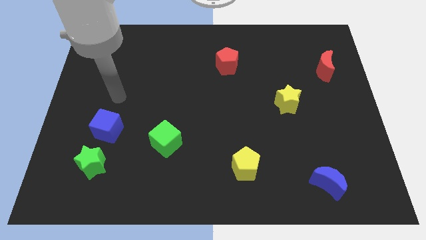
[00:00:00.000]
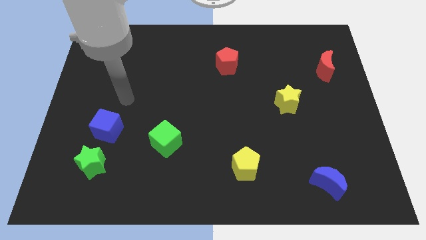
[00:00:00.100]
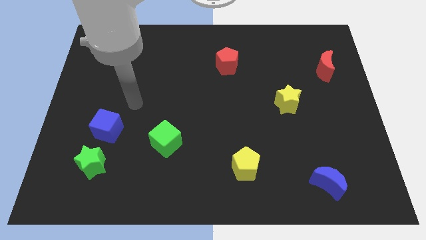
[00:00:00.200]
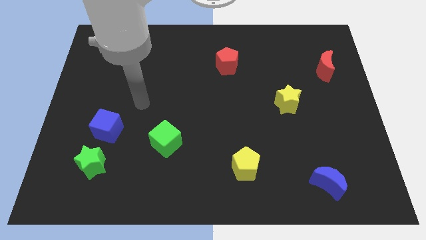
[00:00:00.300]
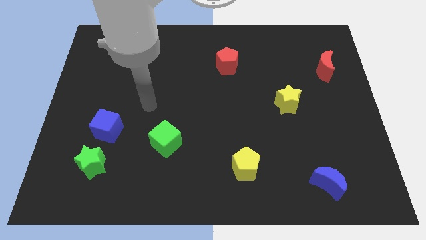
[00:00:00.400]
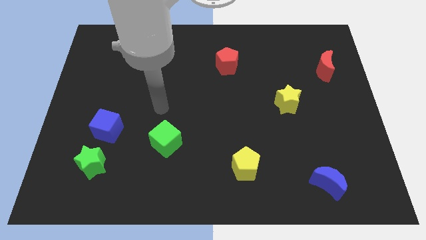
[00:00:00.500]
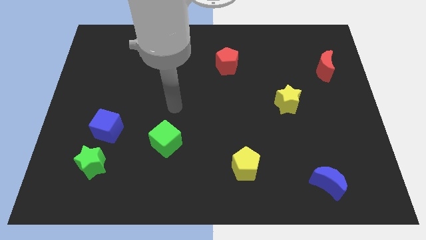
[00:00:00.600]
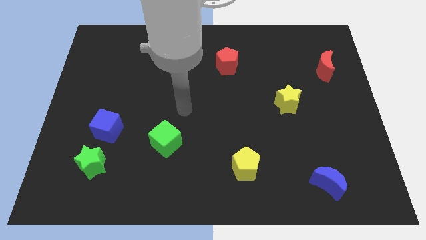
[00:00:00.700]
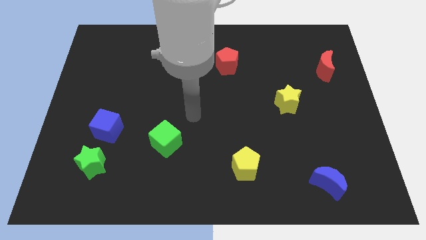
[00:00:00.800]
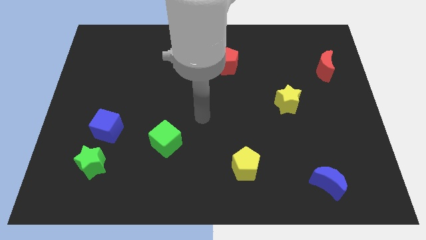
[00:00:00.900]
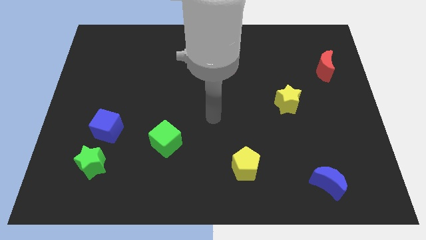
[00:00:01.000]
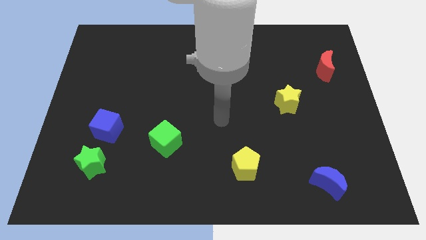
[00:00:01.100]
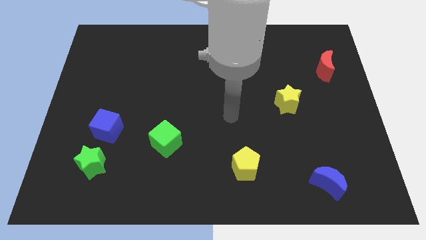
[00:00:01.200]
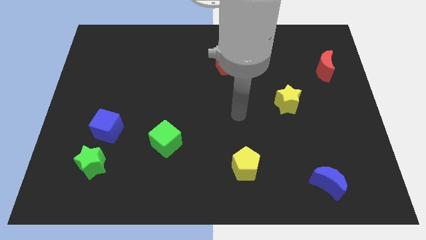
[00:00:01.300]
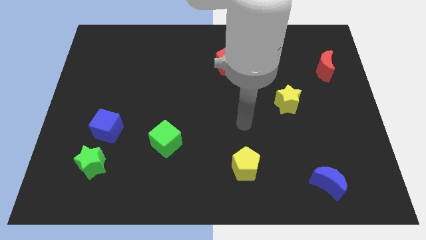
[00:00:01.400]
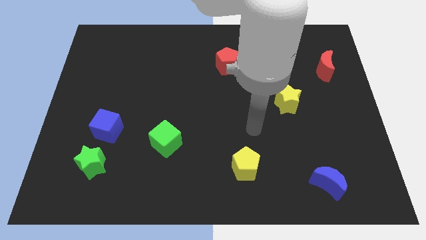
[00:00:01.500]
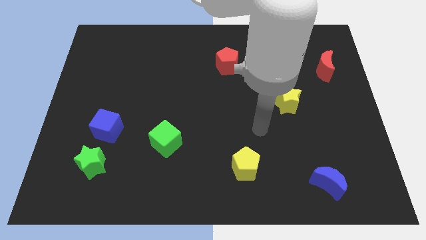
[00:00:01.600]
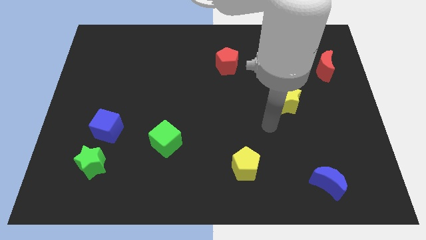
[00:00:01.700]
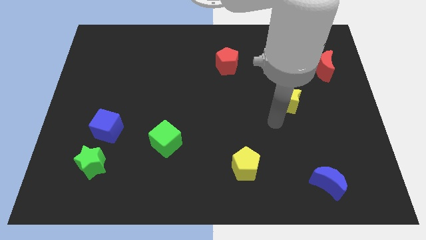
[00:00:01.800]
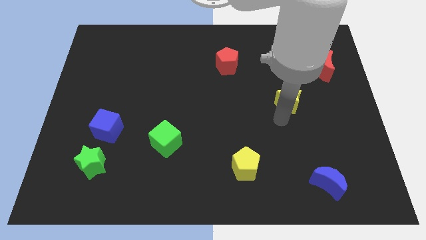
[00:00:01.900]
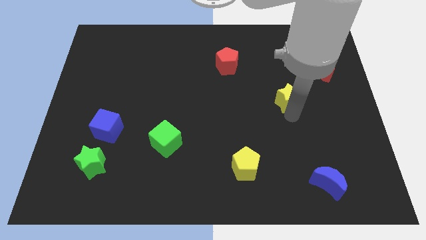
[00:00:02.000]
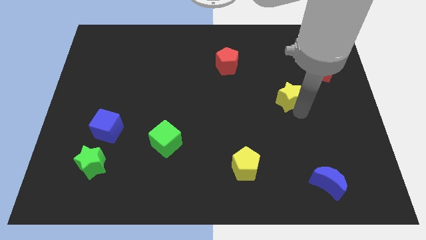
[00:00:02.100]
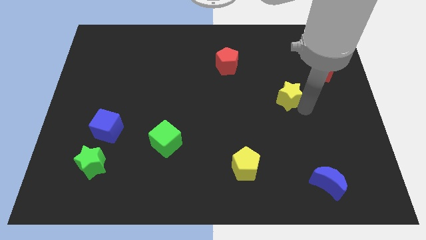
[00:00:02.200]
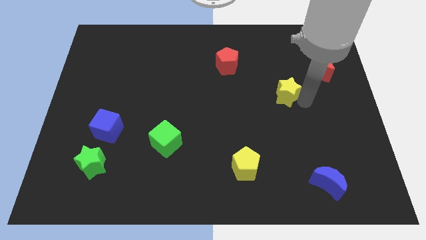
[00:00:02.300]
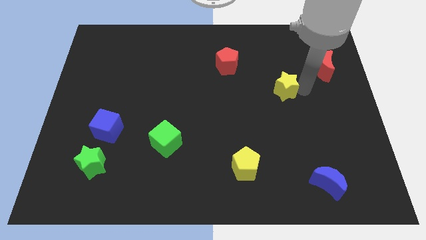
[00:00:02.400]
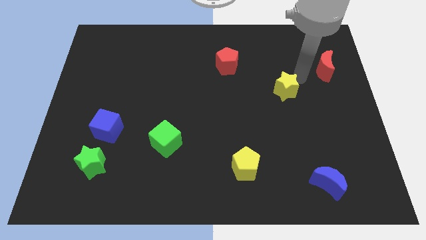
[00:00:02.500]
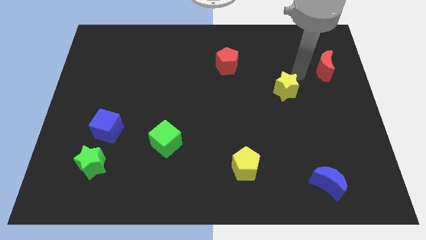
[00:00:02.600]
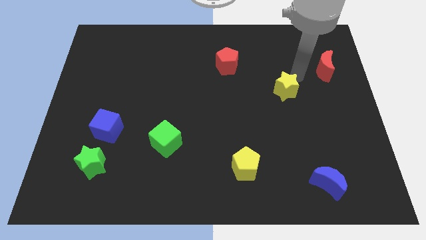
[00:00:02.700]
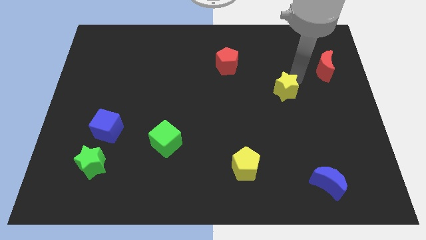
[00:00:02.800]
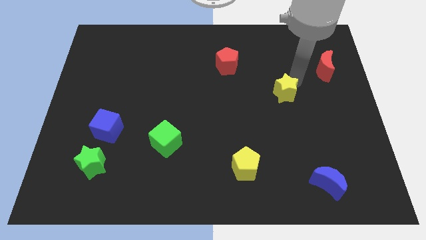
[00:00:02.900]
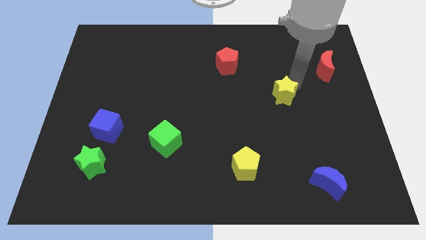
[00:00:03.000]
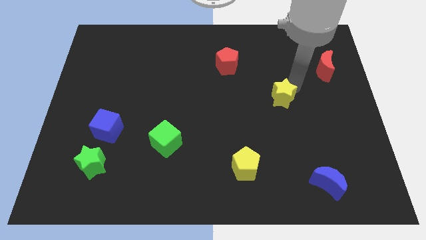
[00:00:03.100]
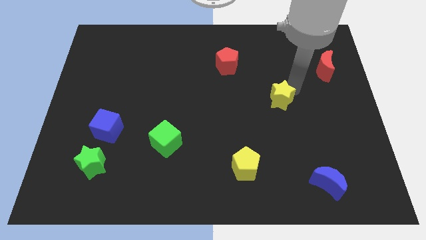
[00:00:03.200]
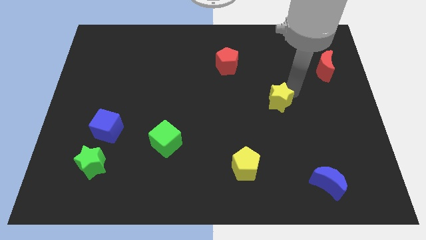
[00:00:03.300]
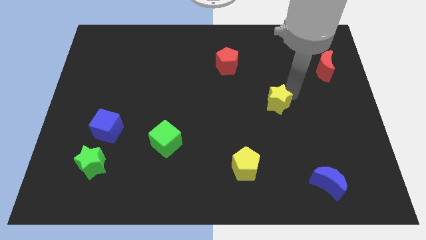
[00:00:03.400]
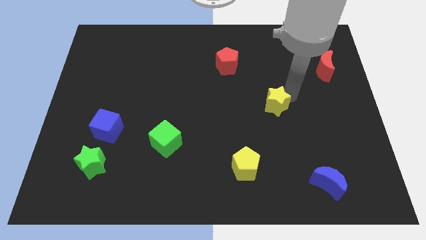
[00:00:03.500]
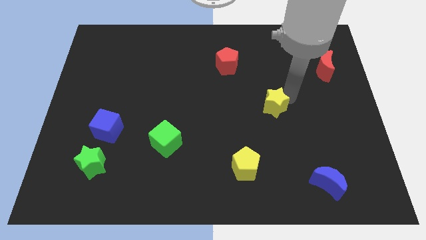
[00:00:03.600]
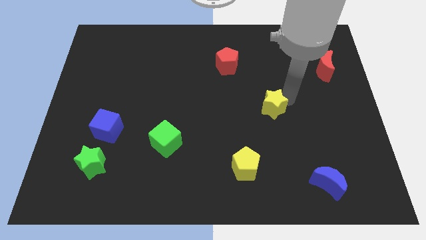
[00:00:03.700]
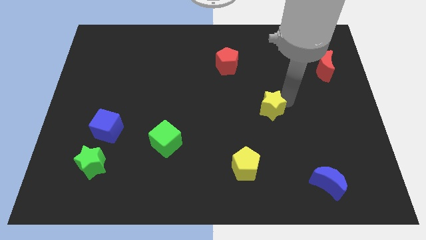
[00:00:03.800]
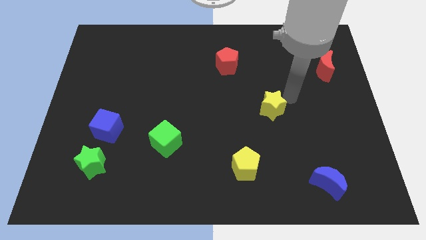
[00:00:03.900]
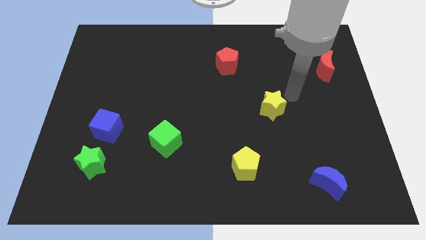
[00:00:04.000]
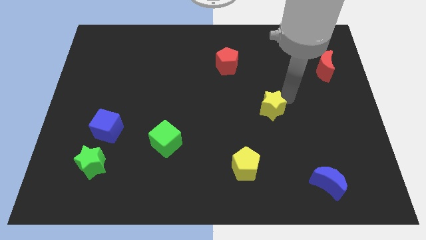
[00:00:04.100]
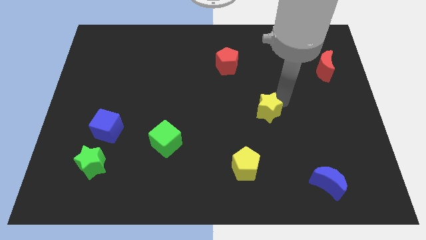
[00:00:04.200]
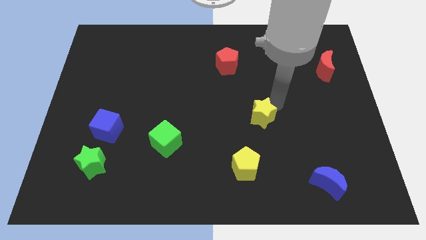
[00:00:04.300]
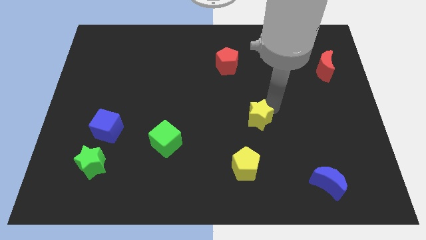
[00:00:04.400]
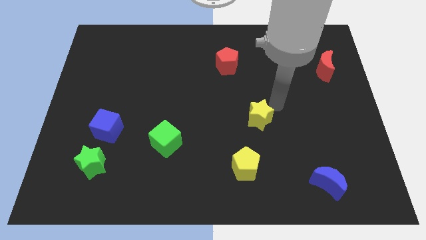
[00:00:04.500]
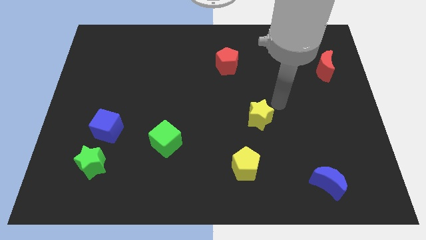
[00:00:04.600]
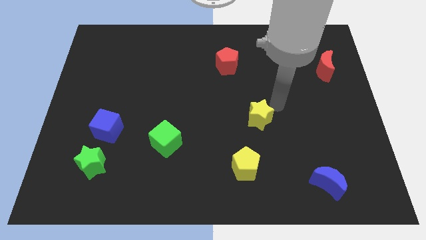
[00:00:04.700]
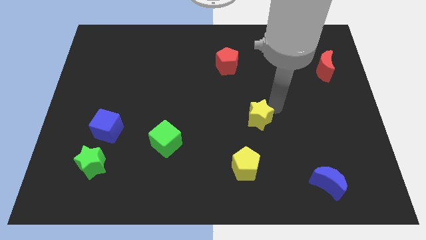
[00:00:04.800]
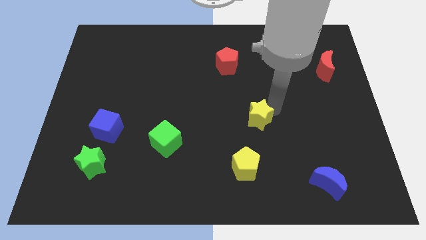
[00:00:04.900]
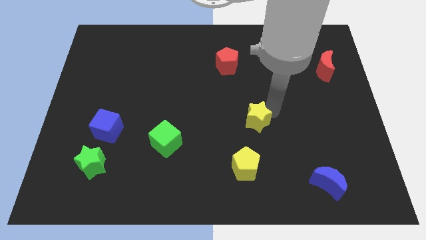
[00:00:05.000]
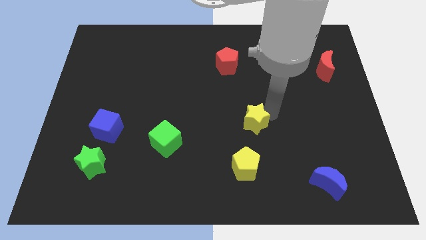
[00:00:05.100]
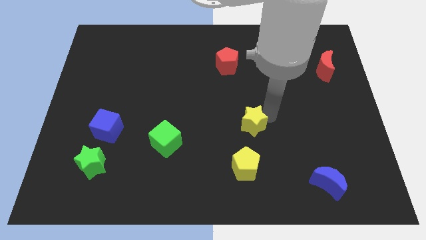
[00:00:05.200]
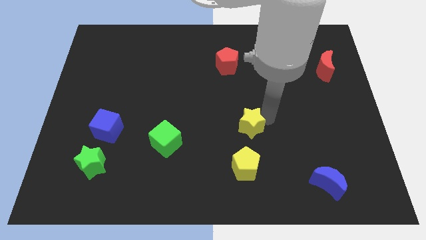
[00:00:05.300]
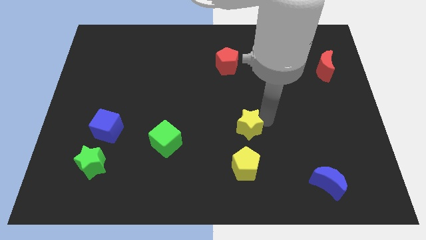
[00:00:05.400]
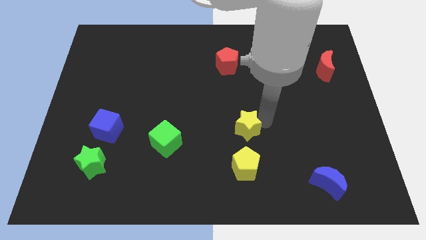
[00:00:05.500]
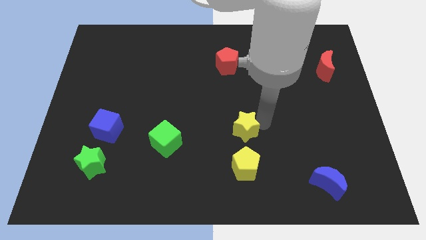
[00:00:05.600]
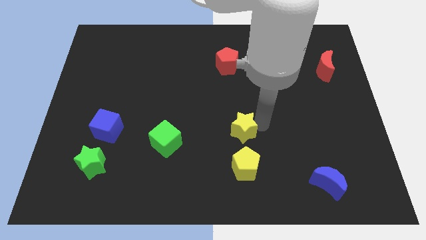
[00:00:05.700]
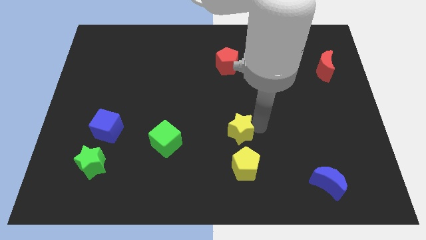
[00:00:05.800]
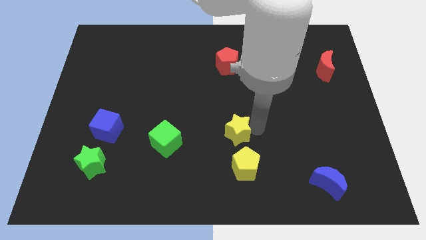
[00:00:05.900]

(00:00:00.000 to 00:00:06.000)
move the yellow star to the right side of the green cube
